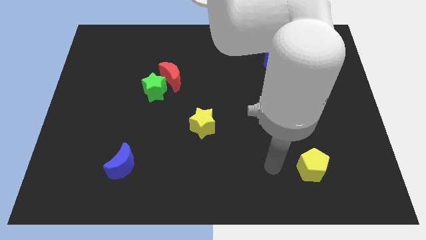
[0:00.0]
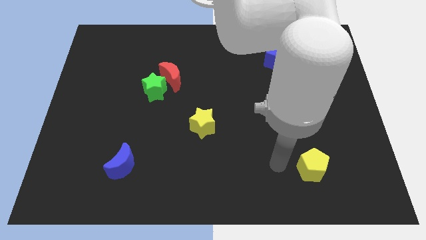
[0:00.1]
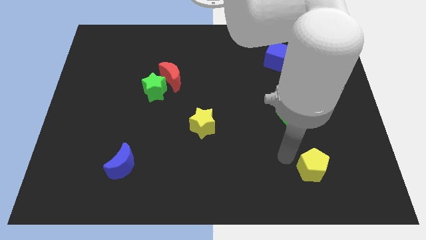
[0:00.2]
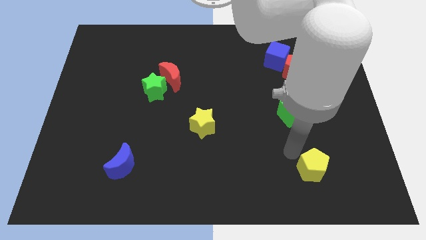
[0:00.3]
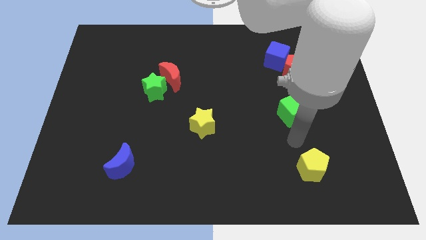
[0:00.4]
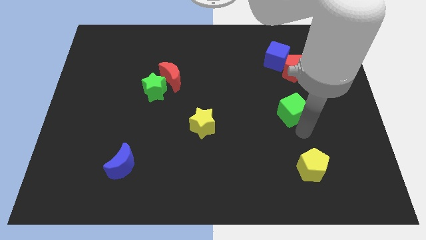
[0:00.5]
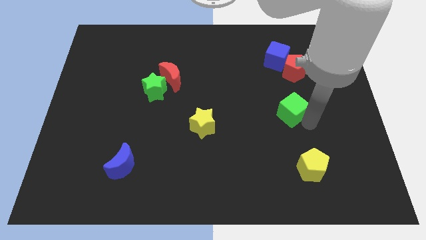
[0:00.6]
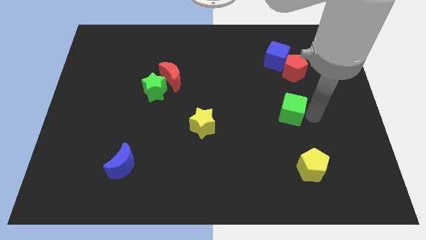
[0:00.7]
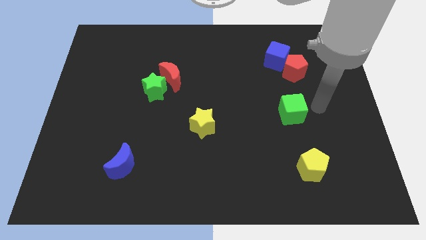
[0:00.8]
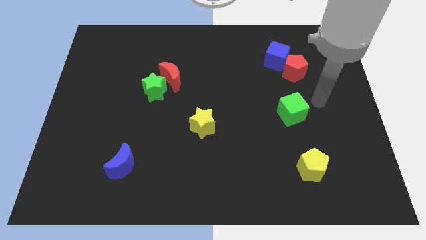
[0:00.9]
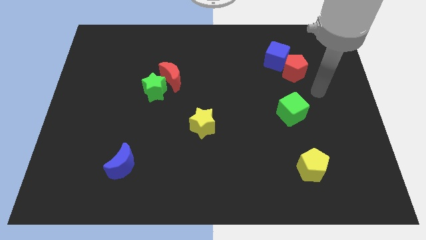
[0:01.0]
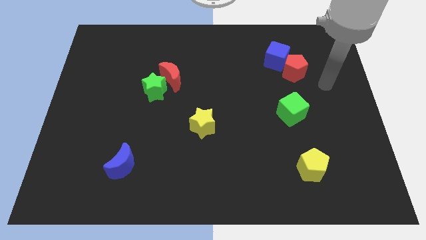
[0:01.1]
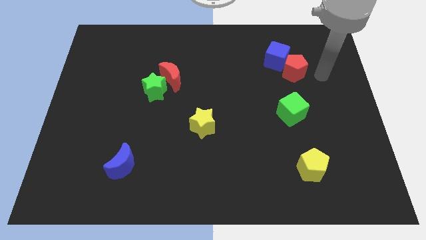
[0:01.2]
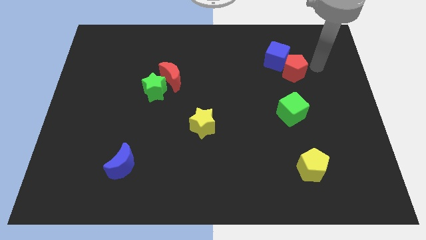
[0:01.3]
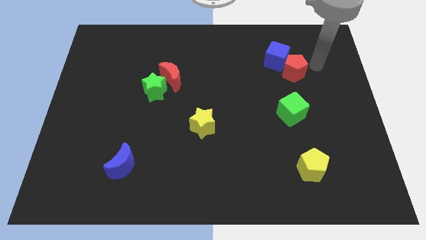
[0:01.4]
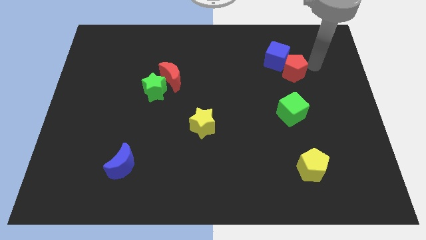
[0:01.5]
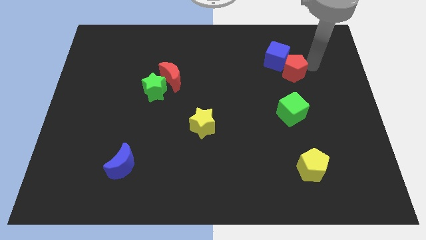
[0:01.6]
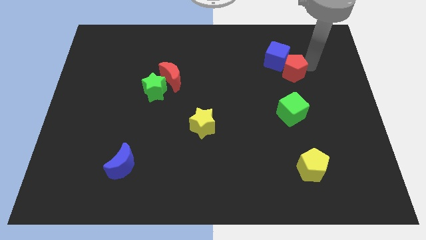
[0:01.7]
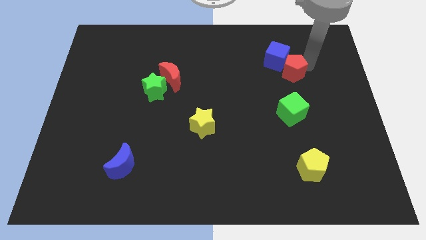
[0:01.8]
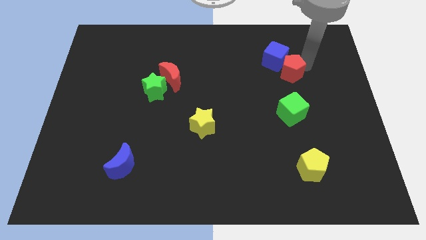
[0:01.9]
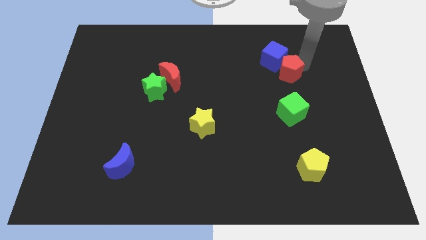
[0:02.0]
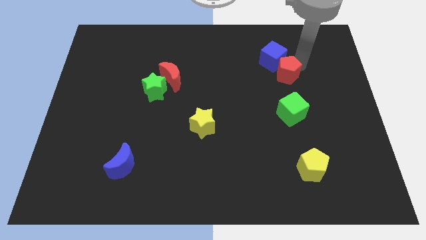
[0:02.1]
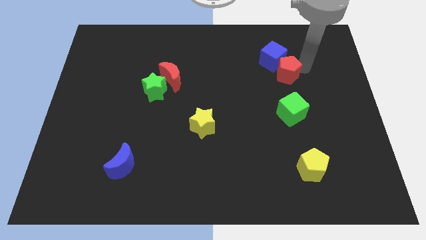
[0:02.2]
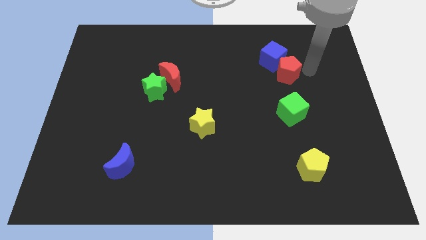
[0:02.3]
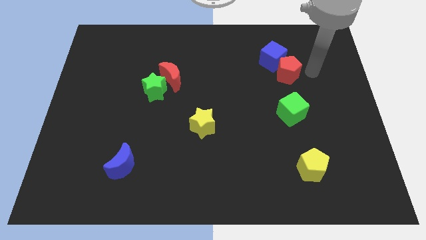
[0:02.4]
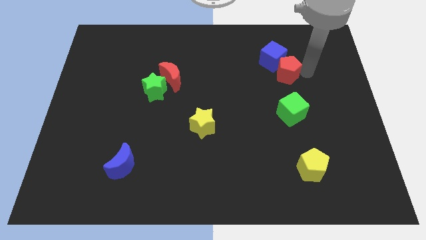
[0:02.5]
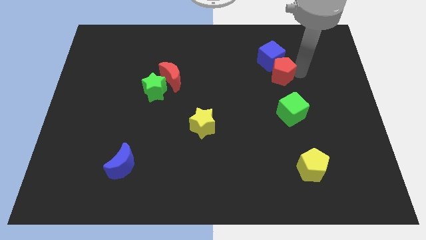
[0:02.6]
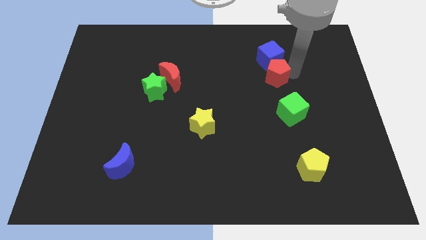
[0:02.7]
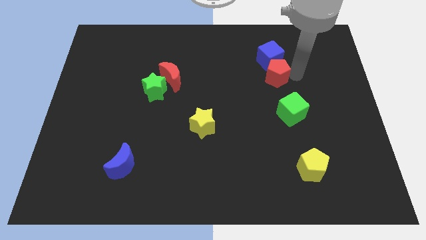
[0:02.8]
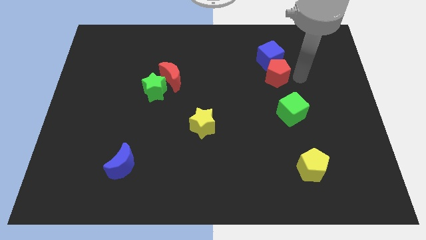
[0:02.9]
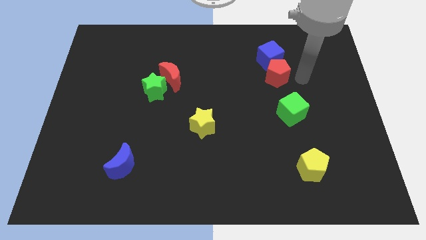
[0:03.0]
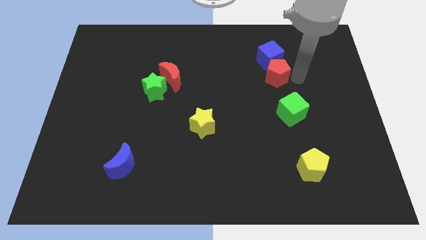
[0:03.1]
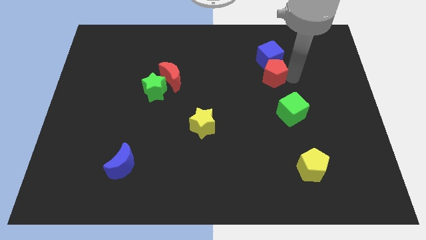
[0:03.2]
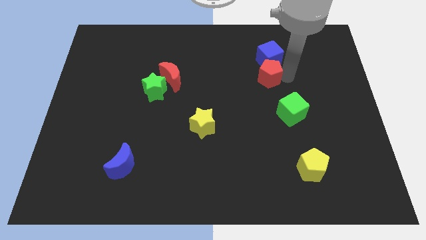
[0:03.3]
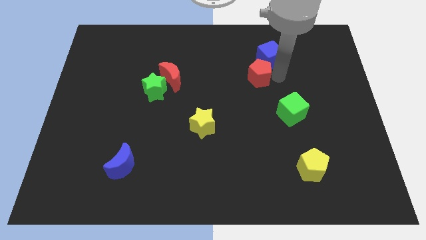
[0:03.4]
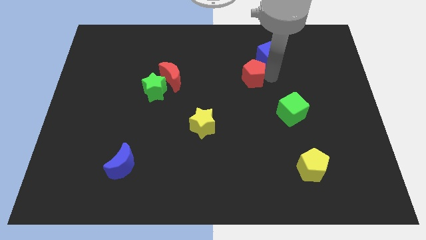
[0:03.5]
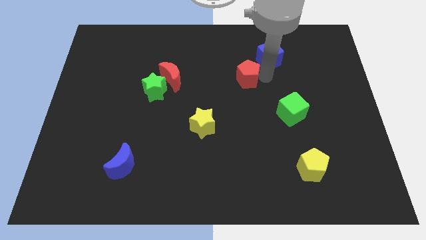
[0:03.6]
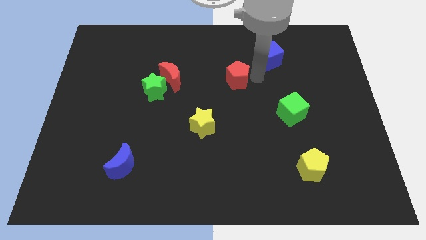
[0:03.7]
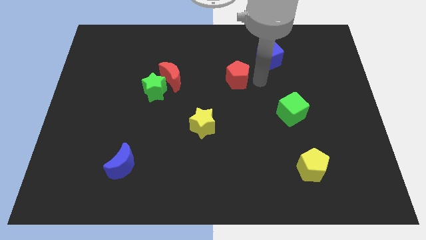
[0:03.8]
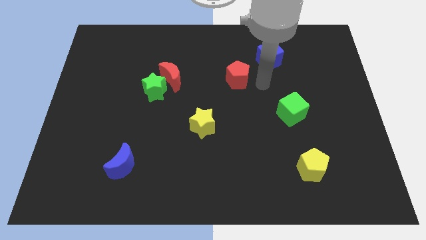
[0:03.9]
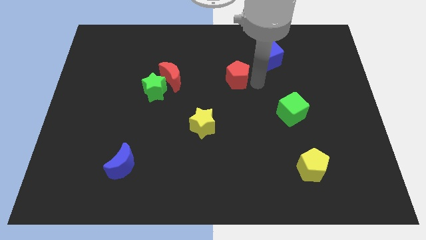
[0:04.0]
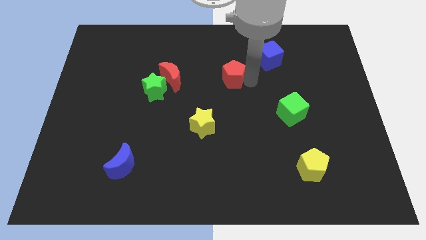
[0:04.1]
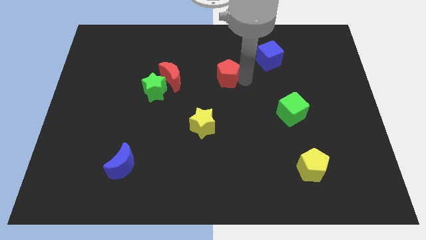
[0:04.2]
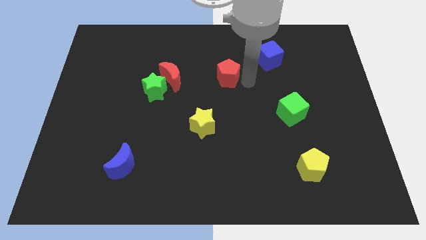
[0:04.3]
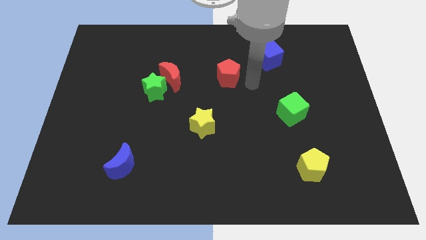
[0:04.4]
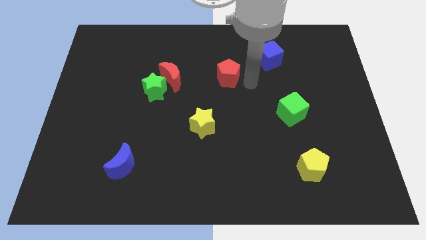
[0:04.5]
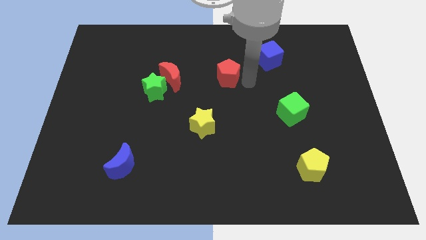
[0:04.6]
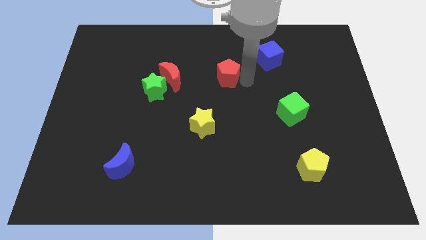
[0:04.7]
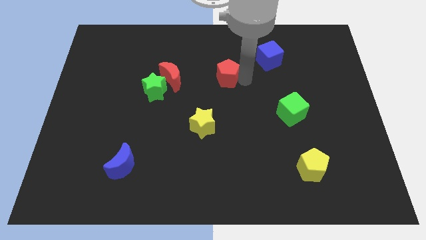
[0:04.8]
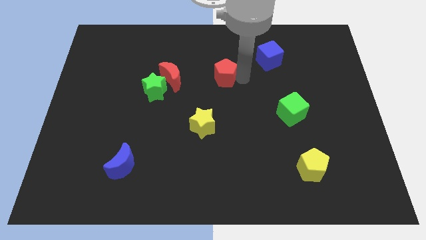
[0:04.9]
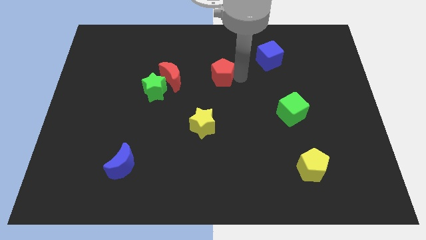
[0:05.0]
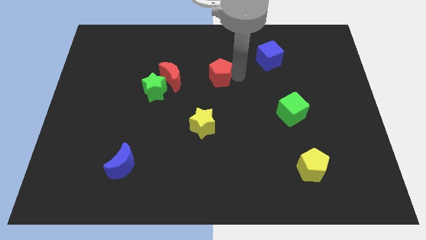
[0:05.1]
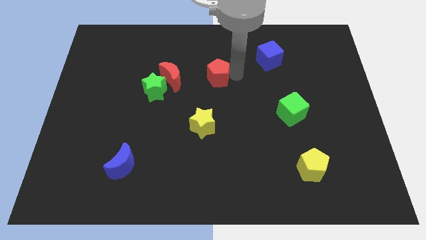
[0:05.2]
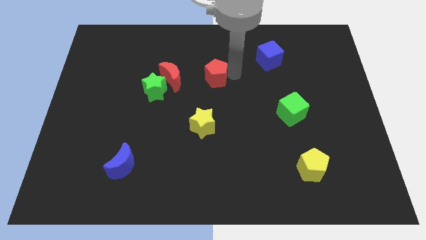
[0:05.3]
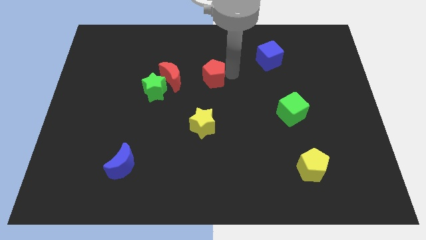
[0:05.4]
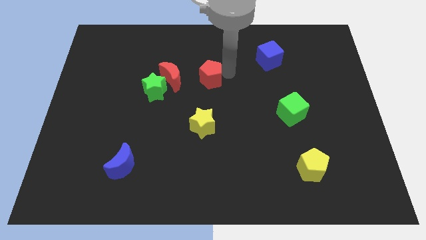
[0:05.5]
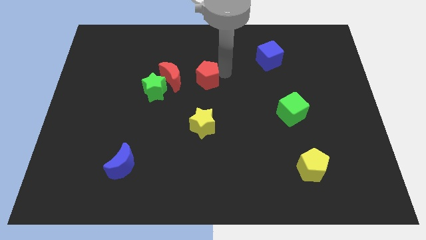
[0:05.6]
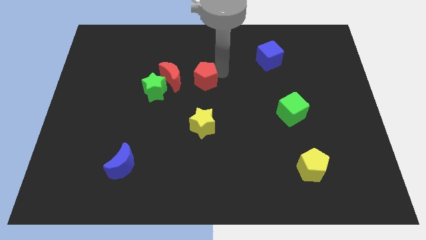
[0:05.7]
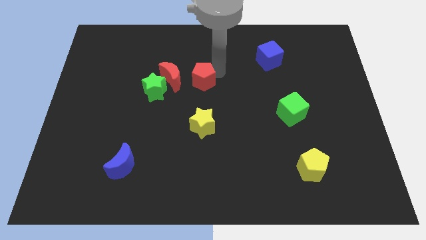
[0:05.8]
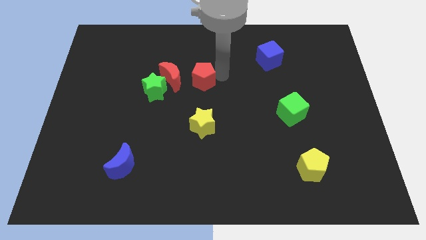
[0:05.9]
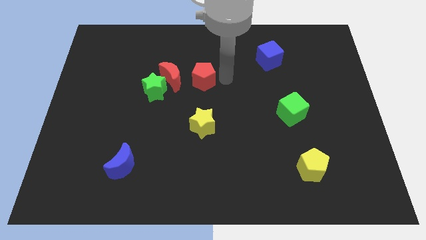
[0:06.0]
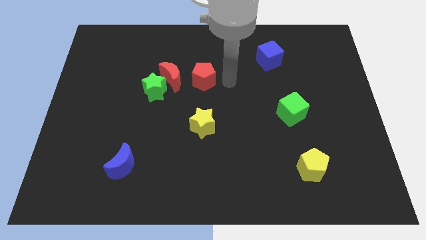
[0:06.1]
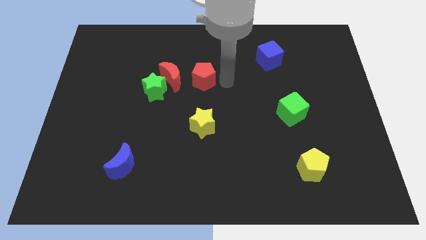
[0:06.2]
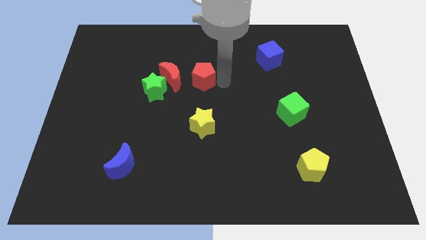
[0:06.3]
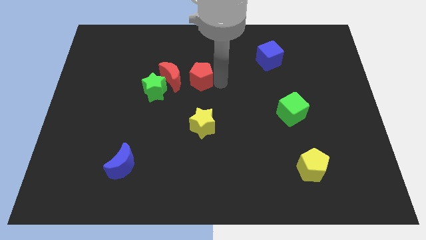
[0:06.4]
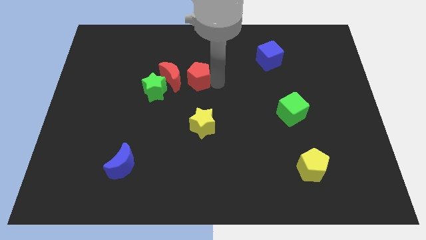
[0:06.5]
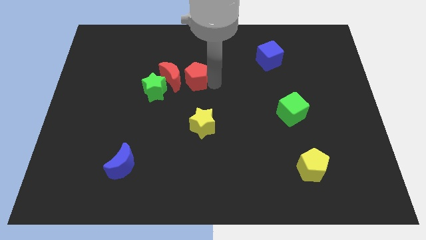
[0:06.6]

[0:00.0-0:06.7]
push the red pentagon diagonally up and to the right of the green star
